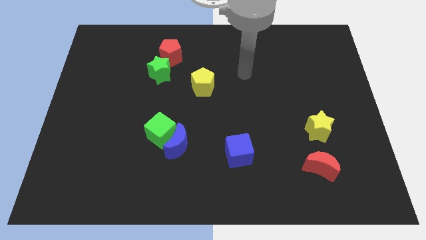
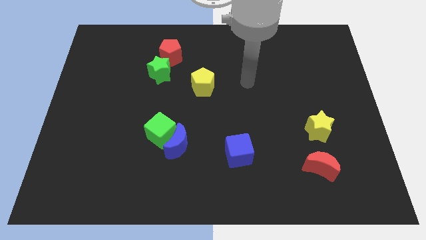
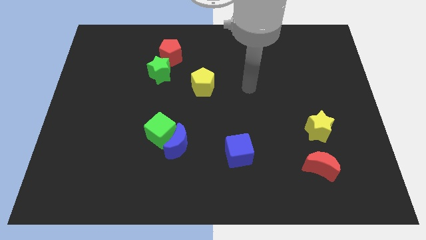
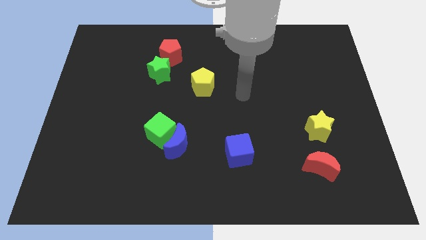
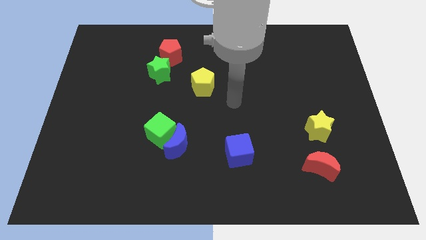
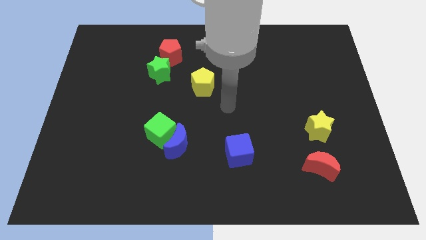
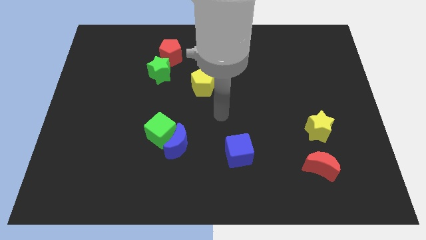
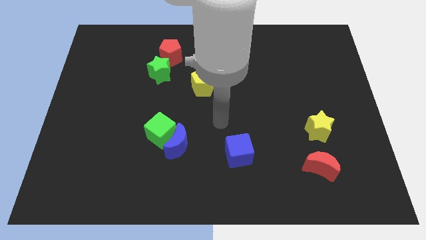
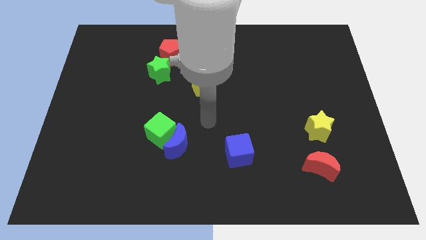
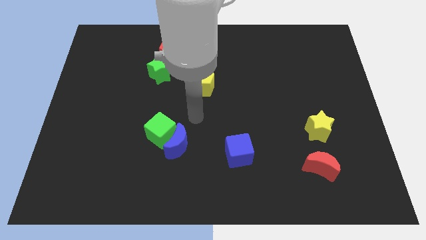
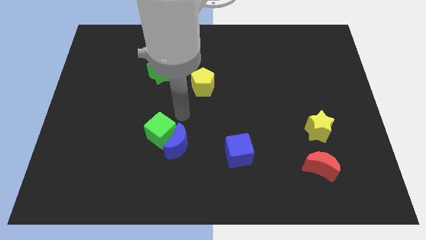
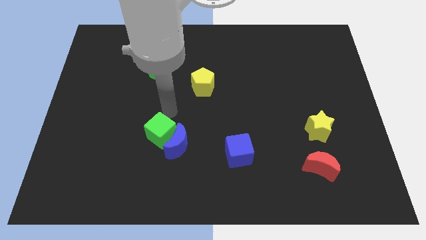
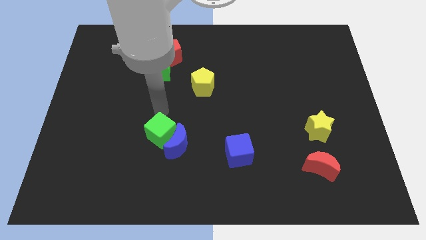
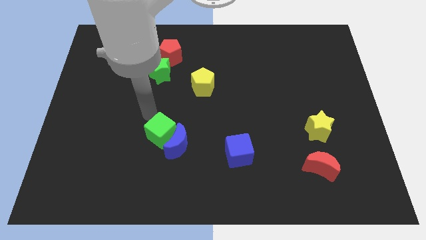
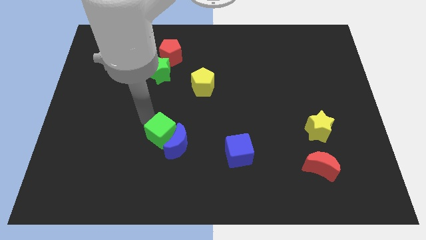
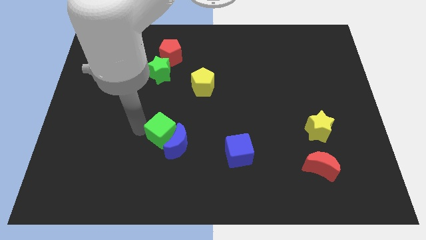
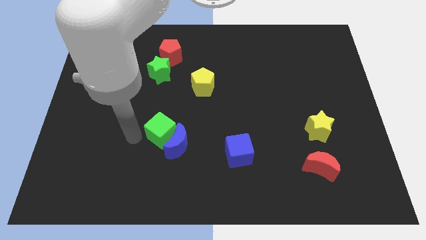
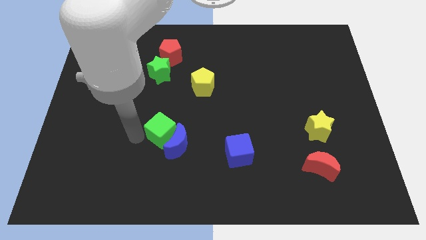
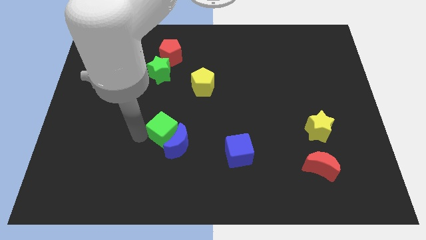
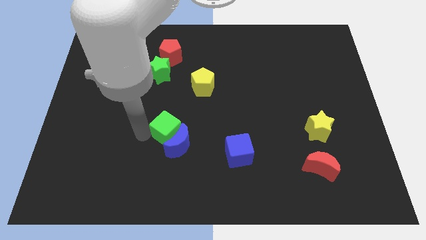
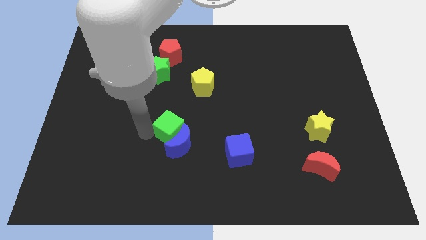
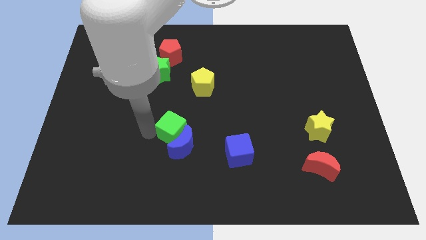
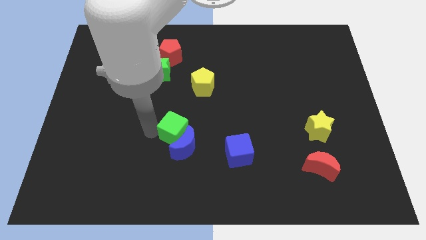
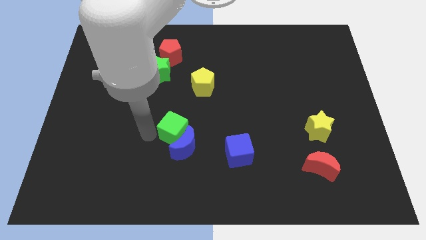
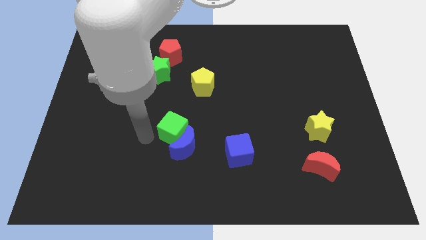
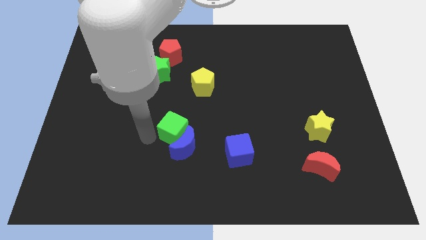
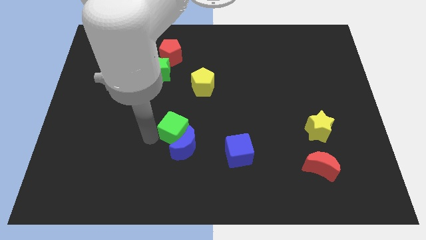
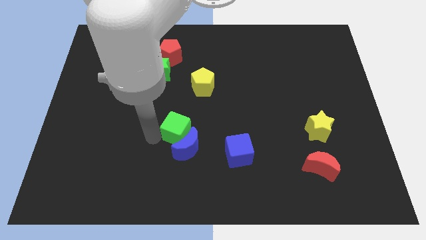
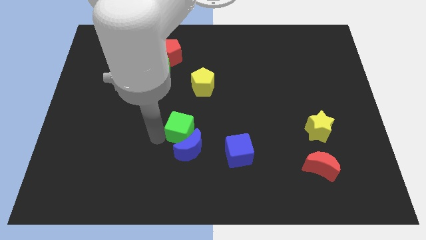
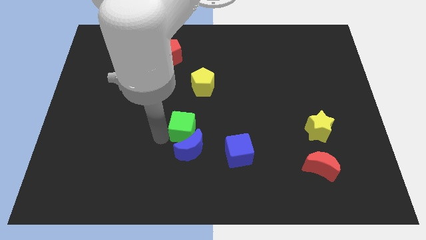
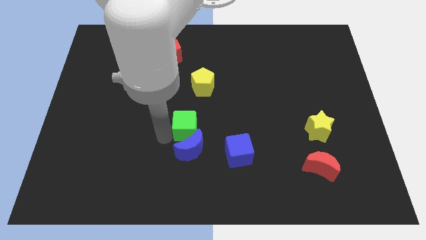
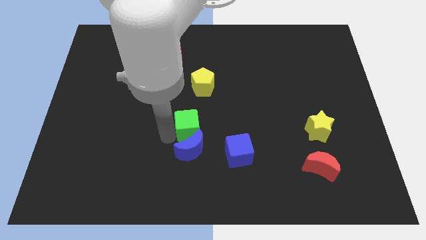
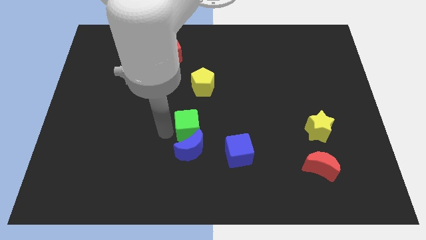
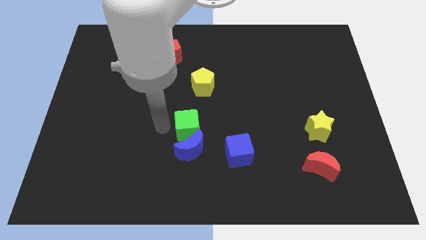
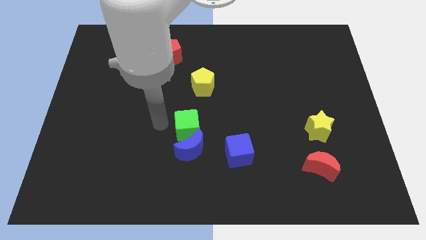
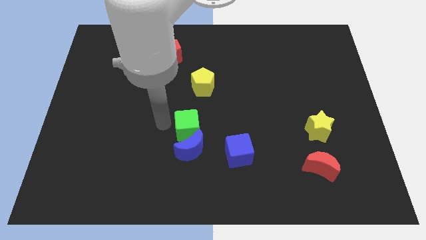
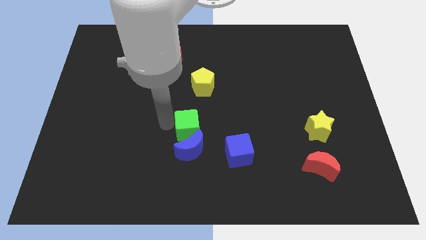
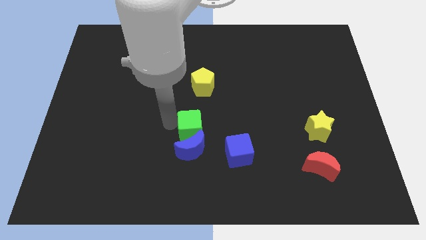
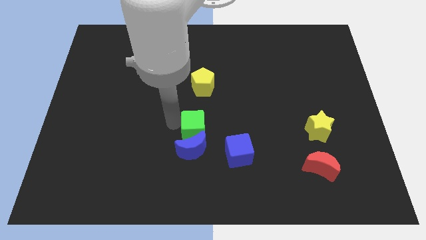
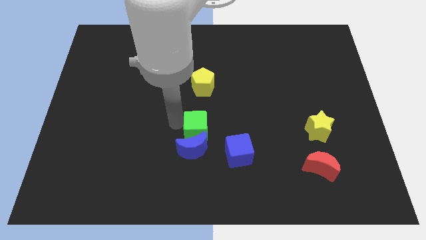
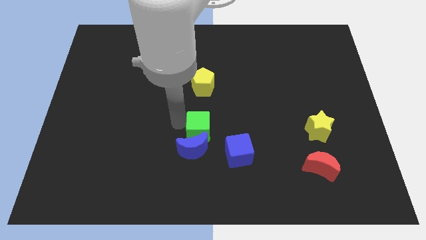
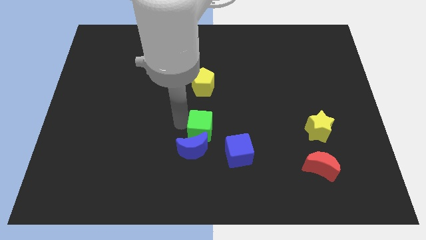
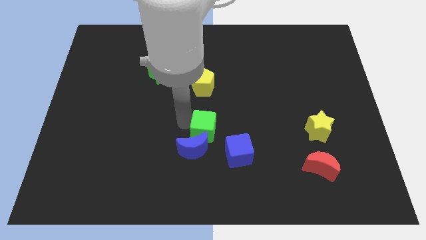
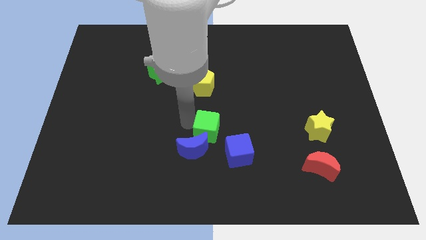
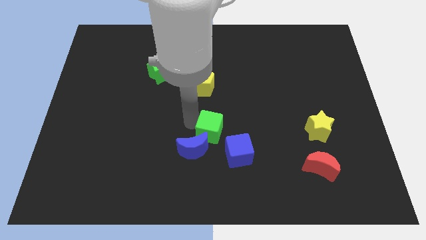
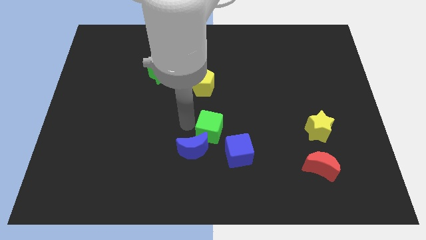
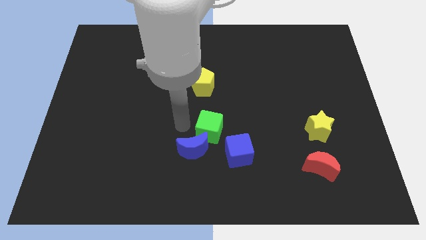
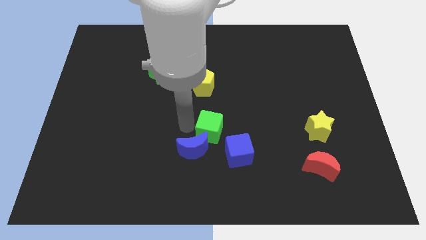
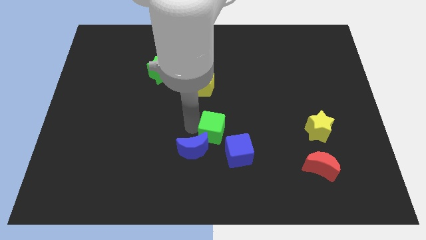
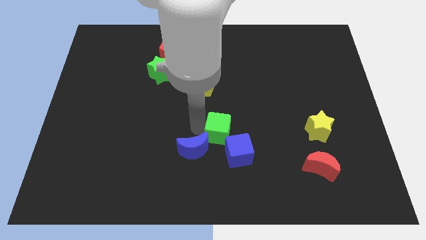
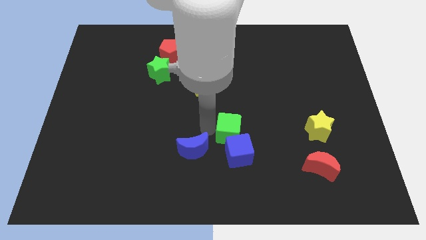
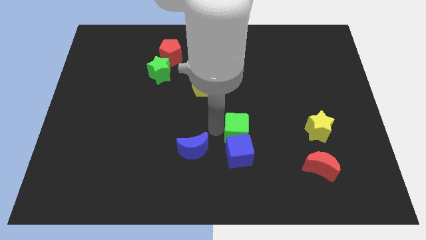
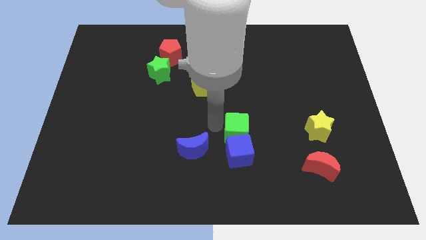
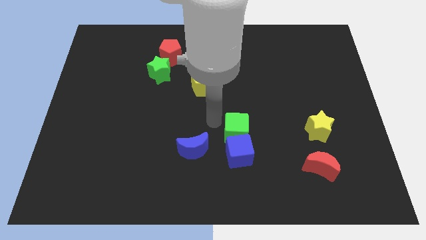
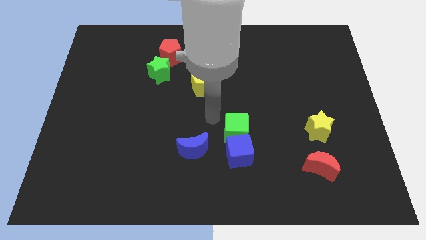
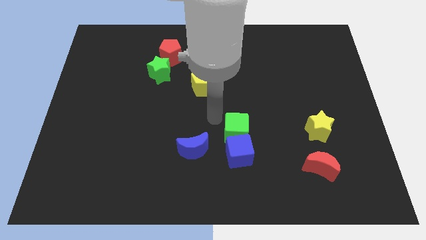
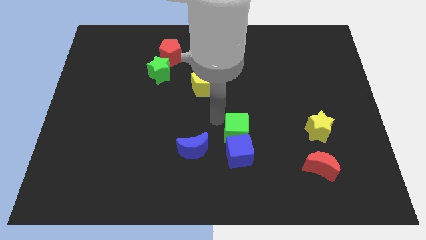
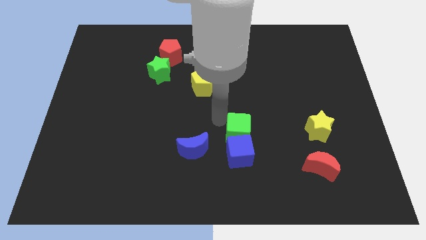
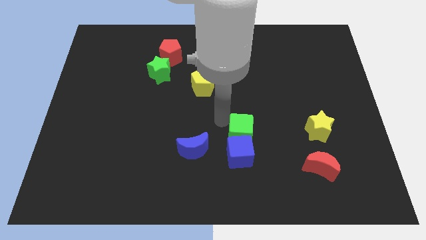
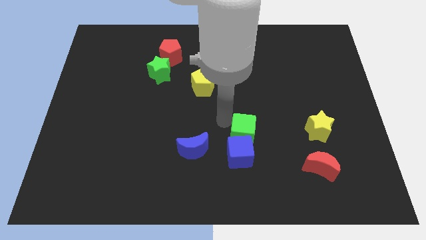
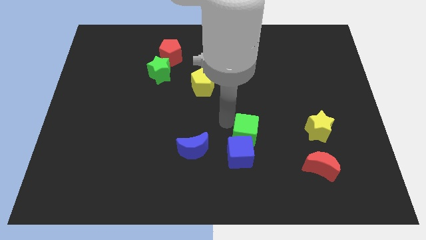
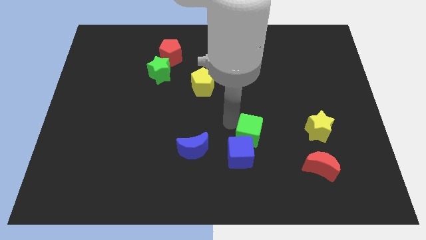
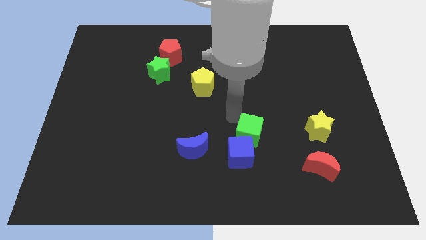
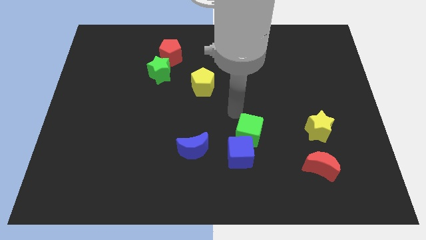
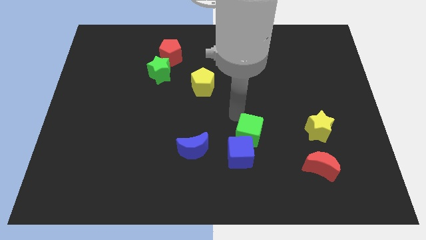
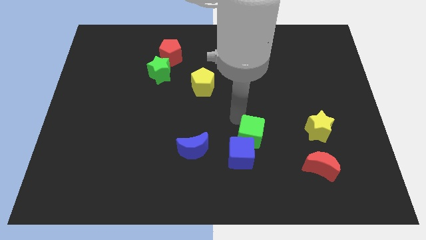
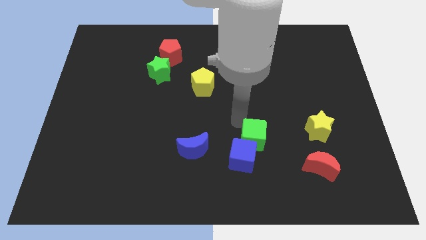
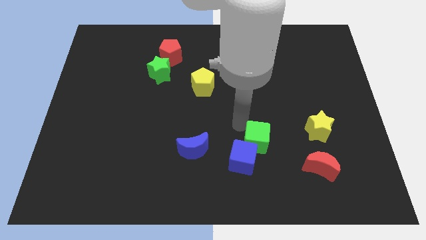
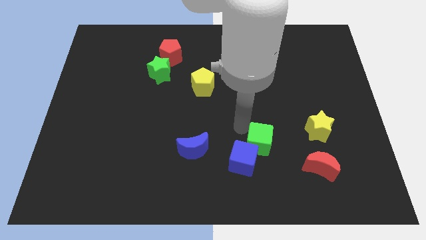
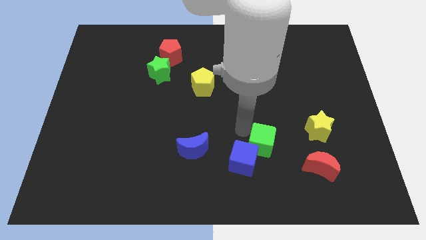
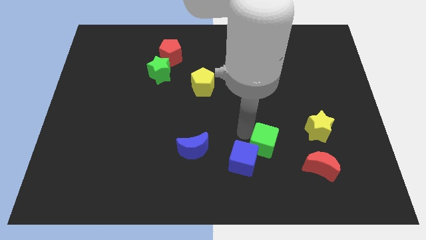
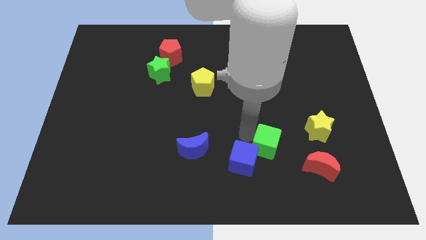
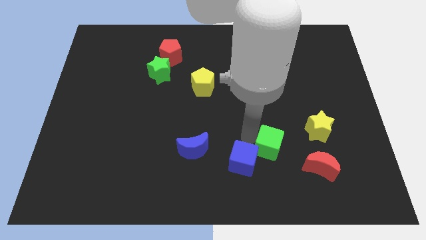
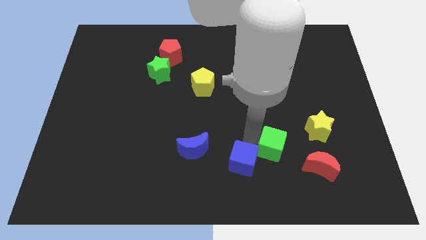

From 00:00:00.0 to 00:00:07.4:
put the green cube left of the red moon
